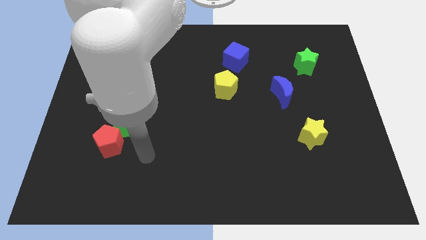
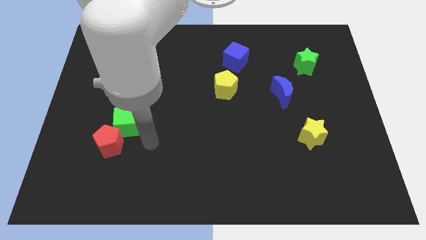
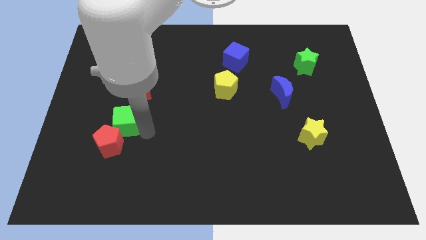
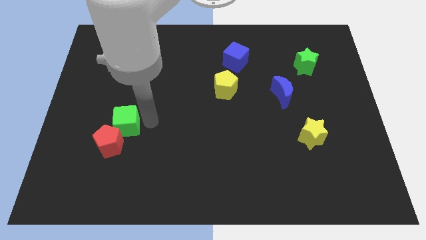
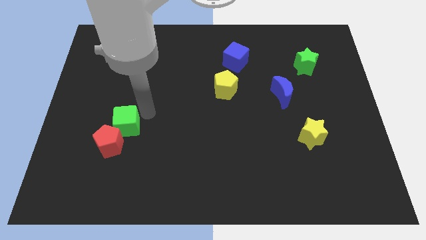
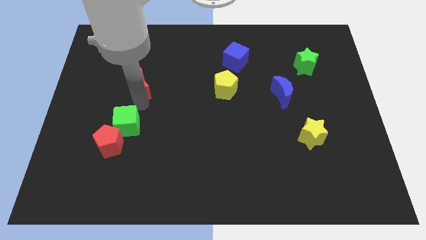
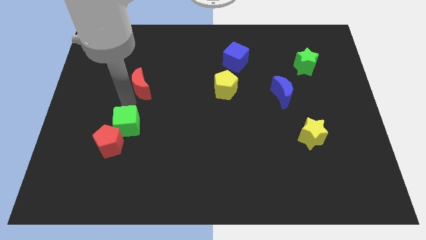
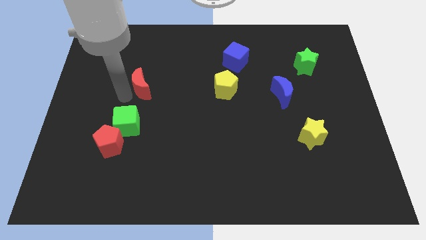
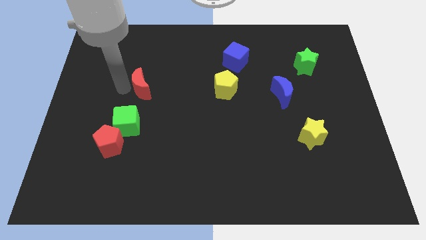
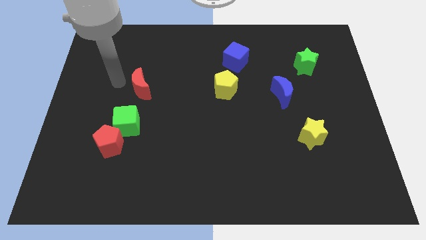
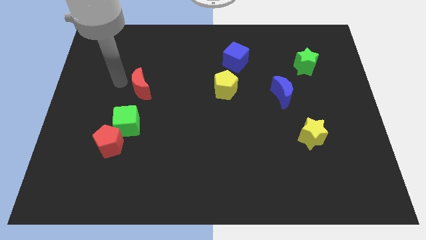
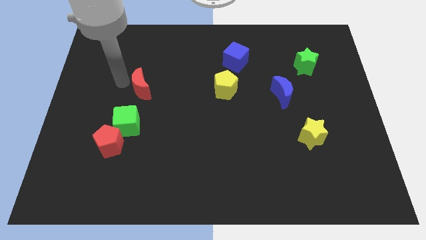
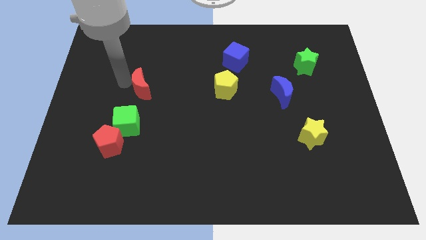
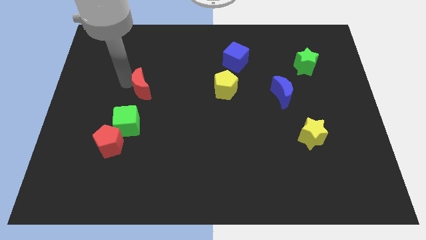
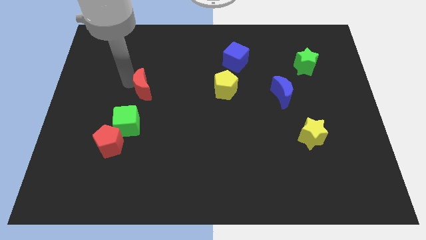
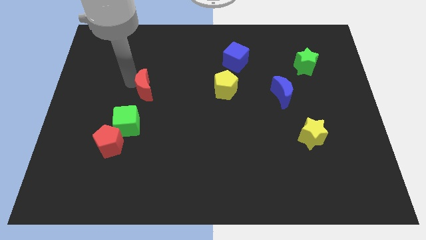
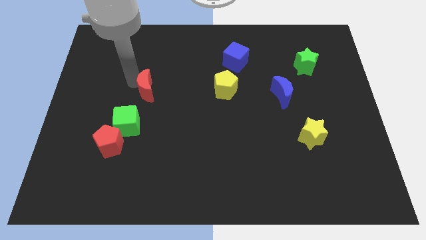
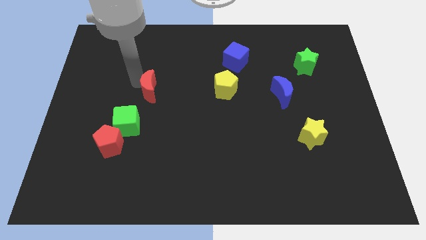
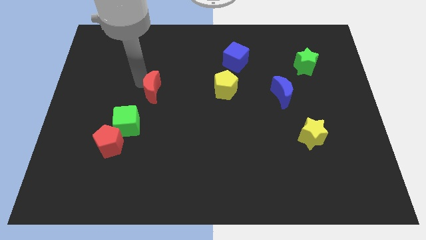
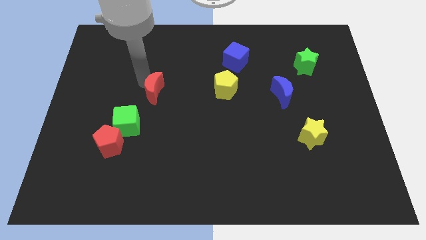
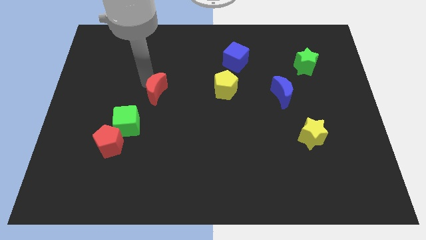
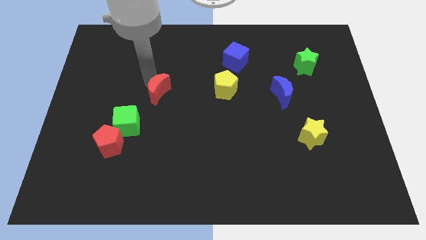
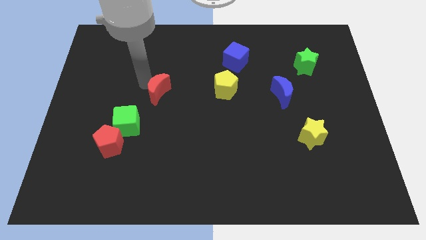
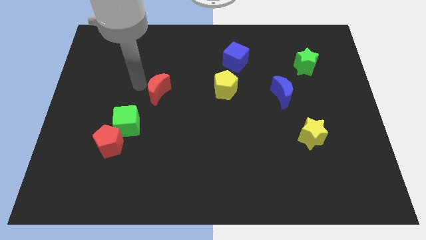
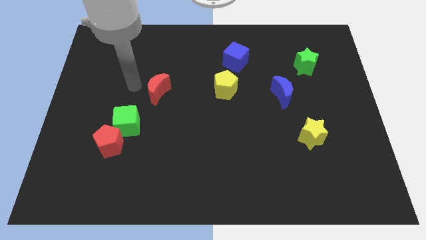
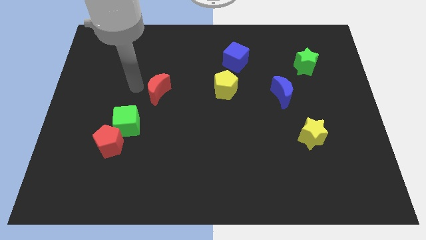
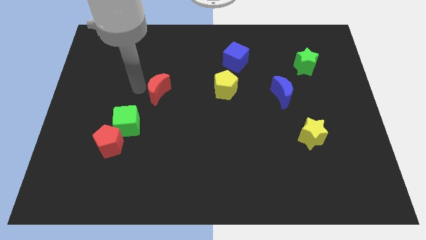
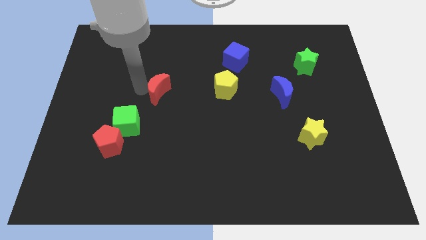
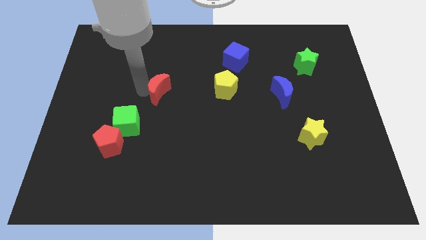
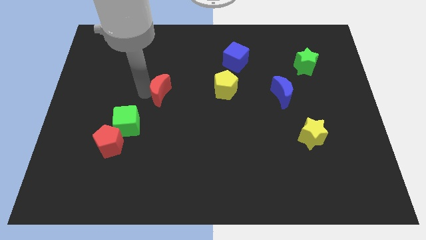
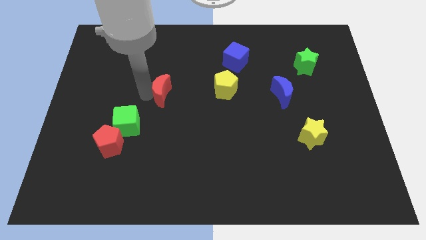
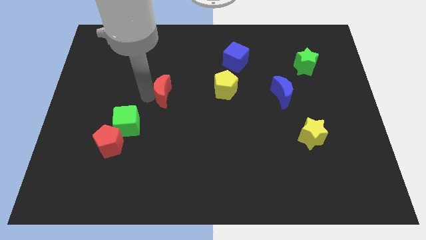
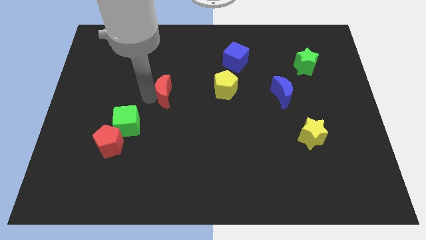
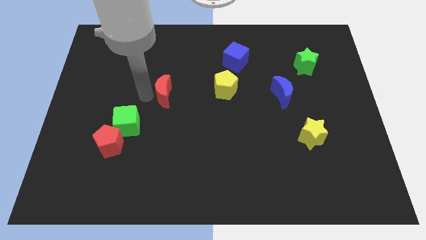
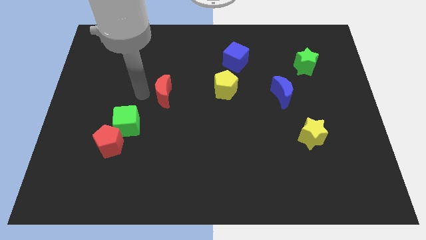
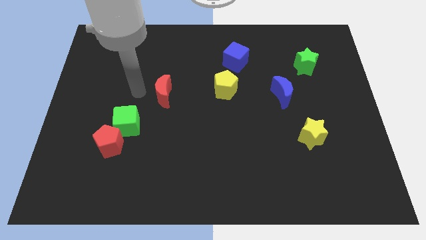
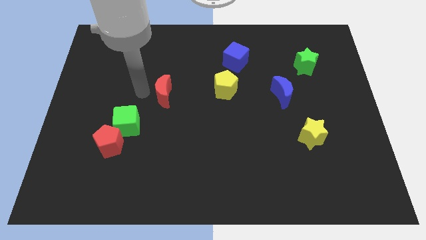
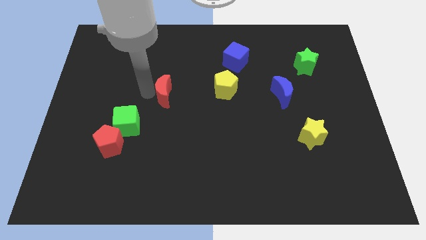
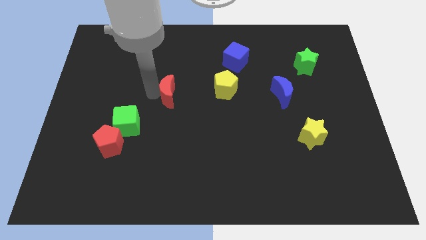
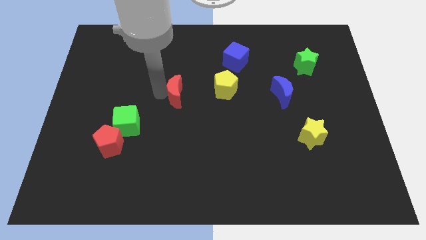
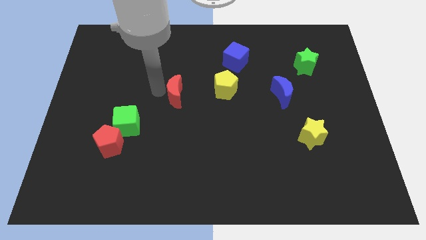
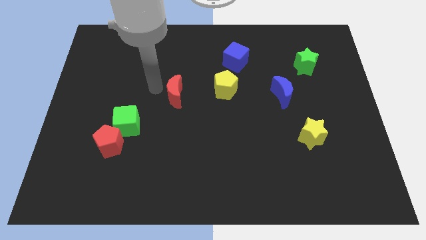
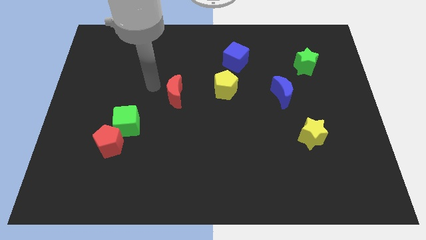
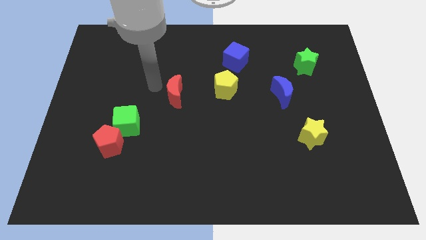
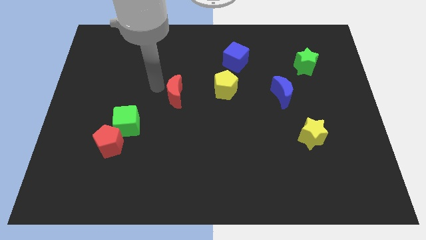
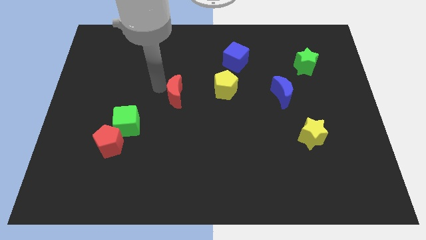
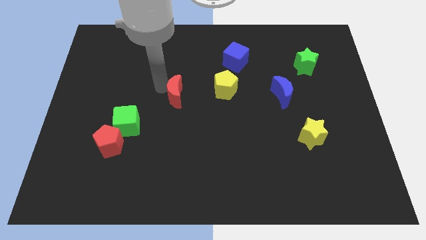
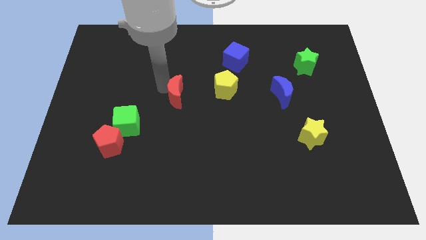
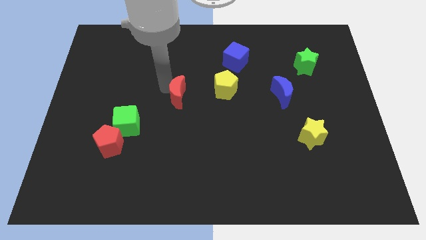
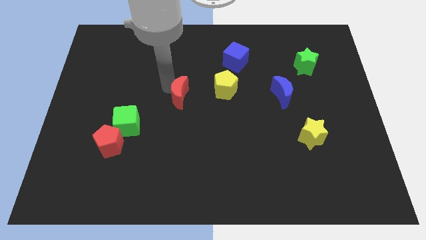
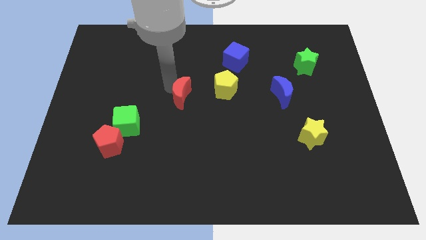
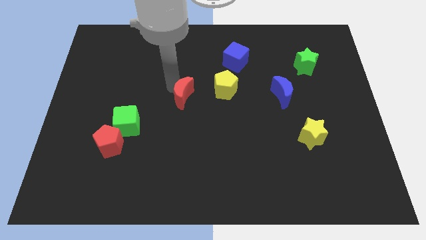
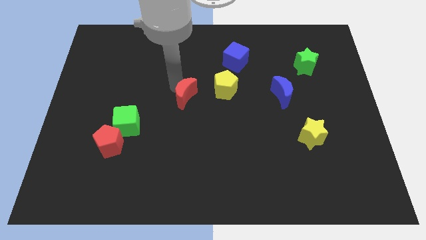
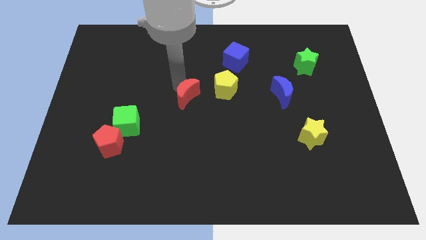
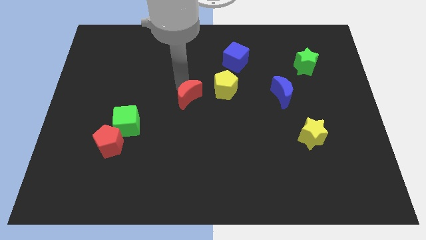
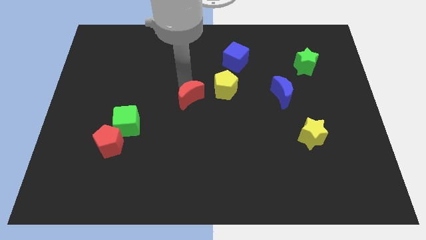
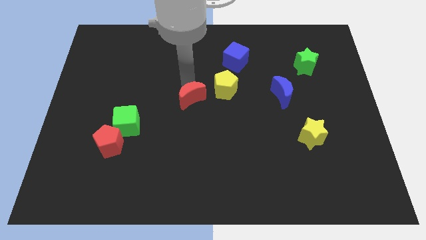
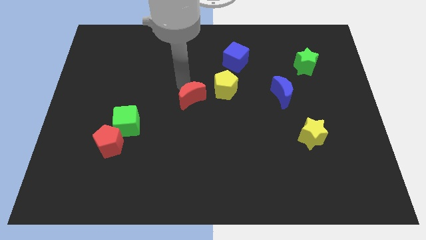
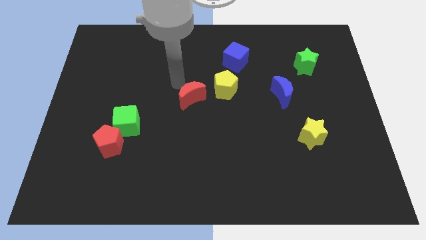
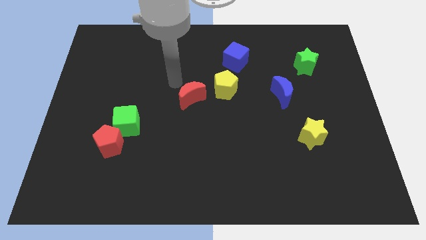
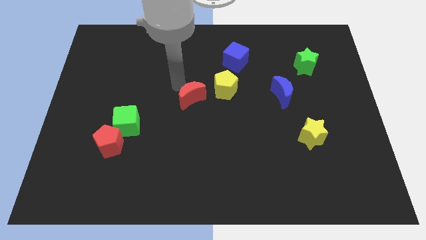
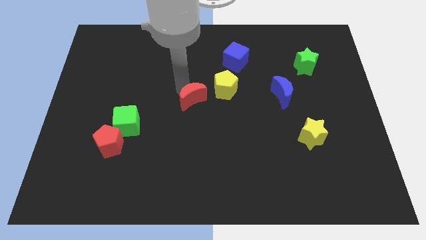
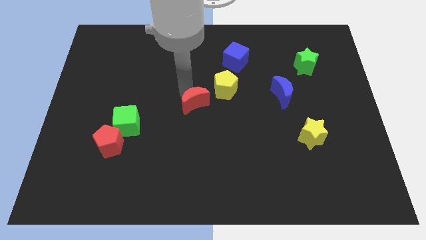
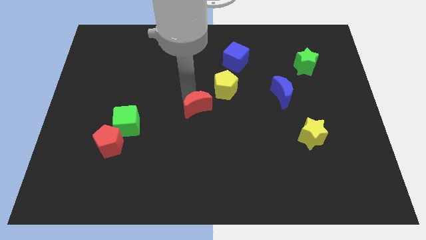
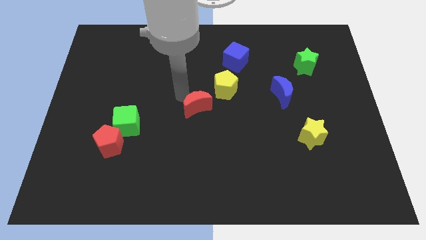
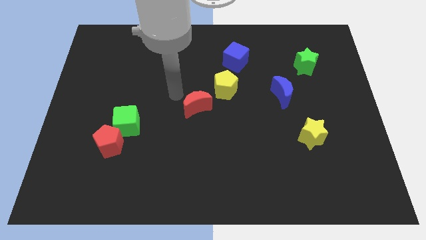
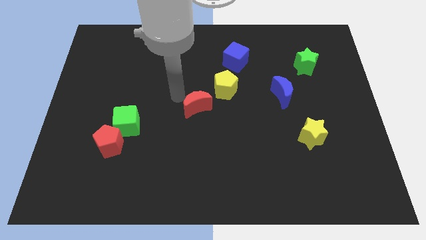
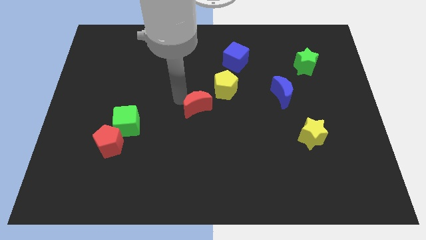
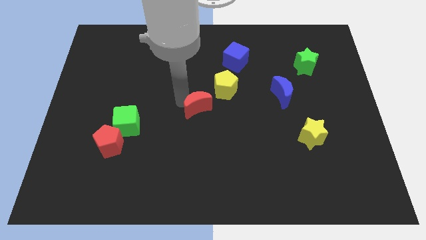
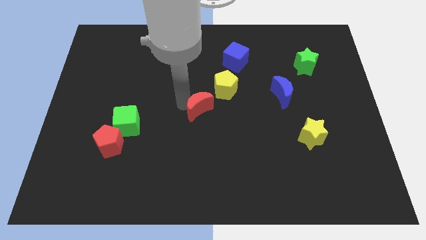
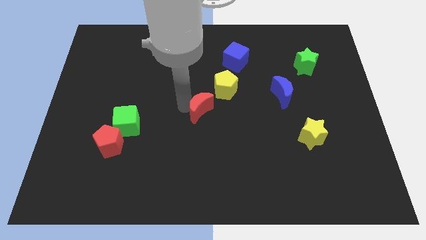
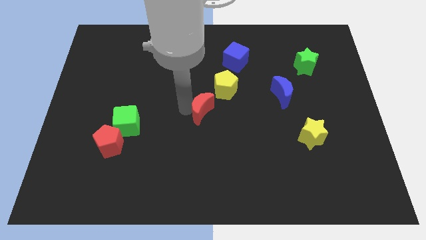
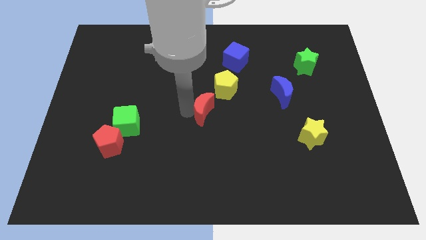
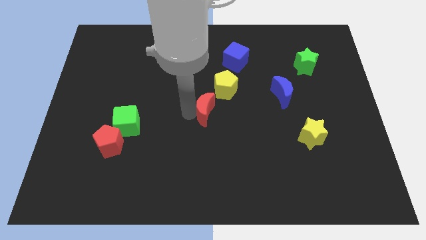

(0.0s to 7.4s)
slide the red moon below the yellow pentagon
